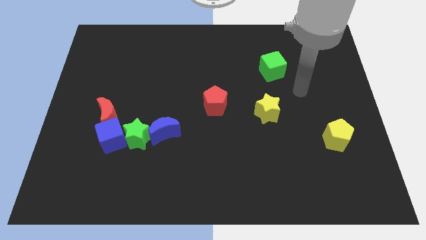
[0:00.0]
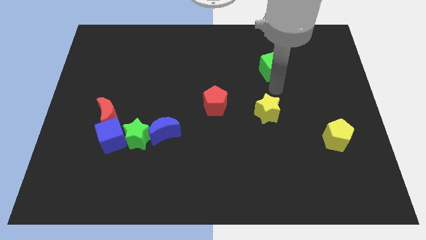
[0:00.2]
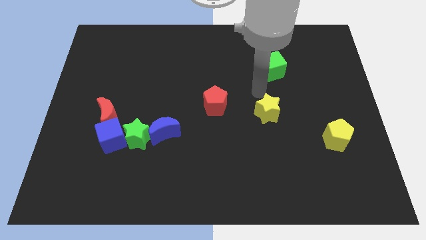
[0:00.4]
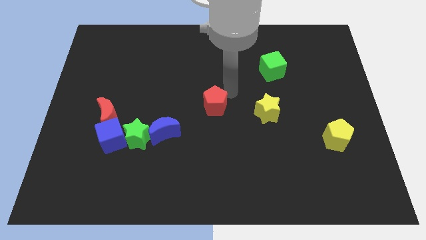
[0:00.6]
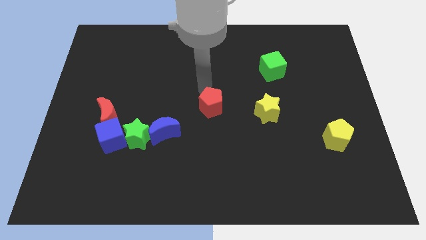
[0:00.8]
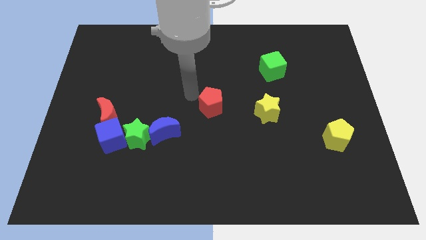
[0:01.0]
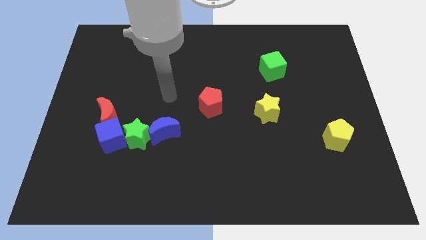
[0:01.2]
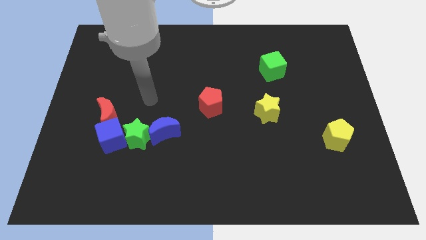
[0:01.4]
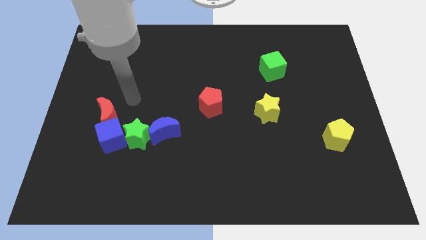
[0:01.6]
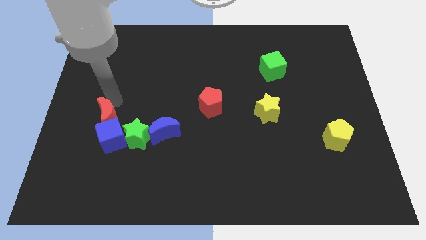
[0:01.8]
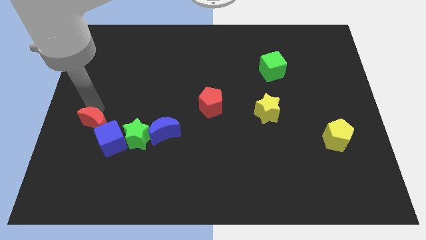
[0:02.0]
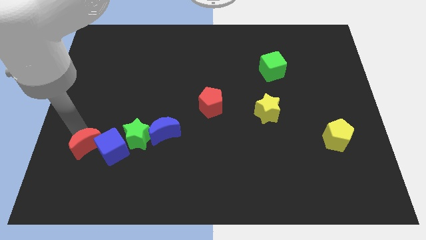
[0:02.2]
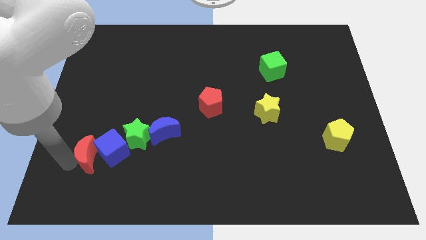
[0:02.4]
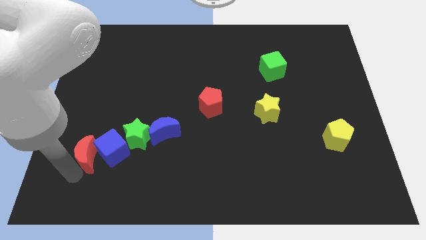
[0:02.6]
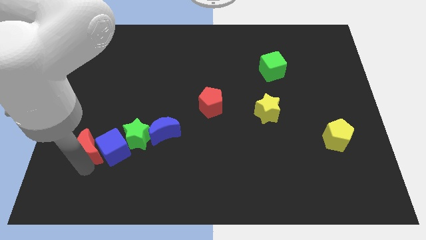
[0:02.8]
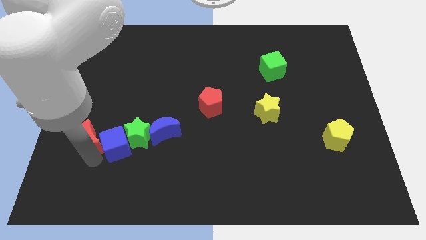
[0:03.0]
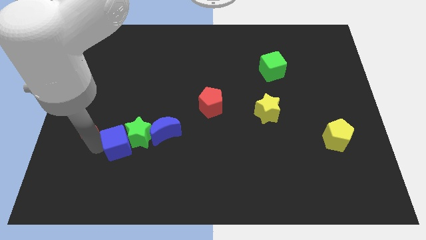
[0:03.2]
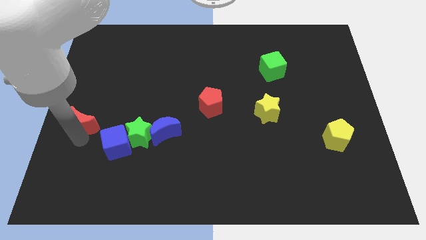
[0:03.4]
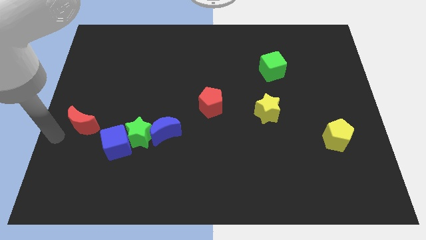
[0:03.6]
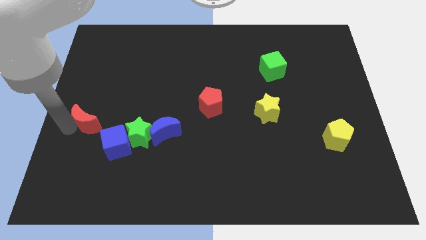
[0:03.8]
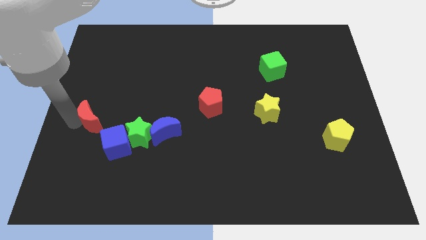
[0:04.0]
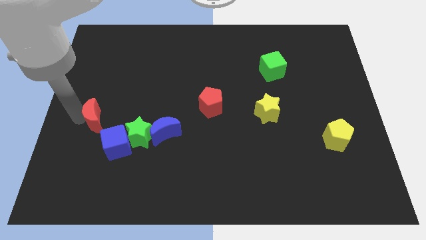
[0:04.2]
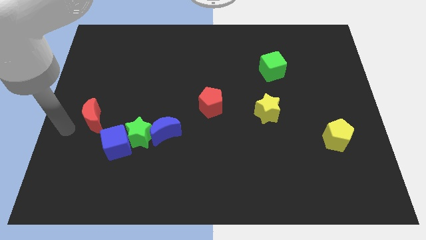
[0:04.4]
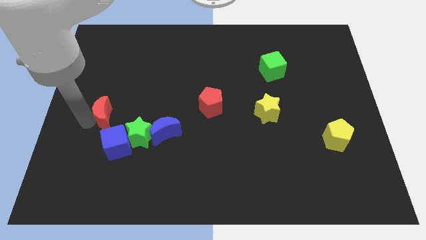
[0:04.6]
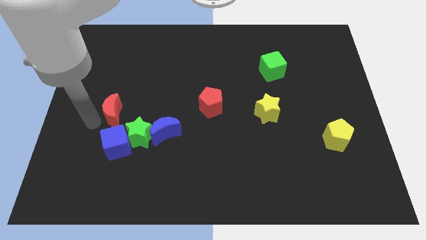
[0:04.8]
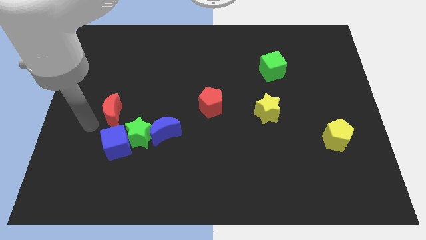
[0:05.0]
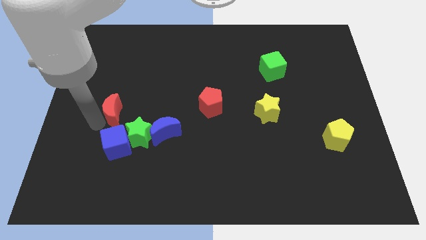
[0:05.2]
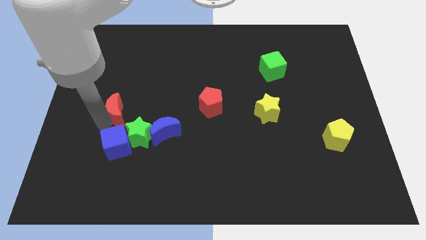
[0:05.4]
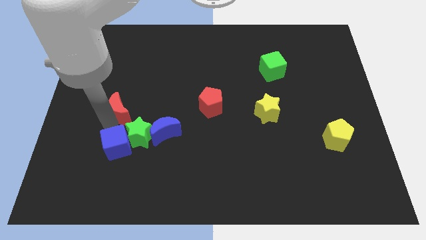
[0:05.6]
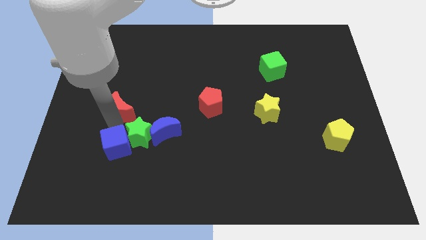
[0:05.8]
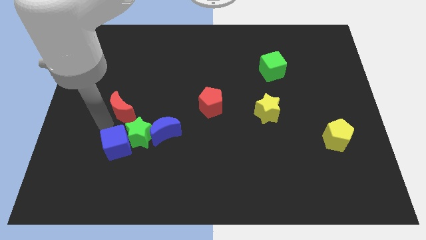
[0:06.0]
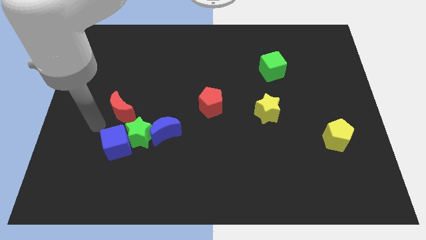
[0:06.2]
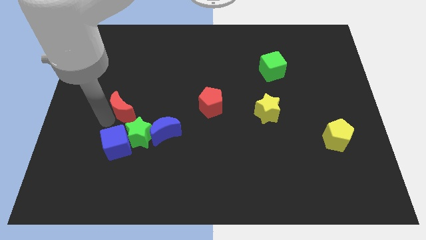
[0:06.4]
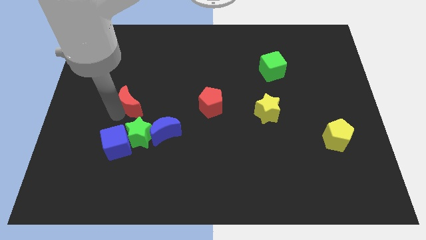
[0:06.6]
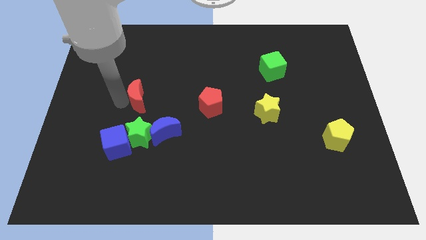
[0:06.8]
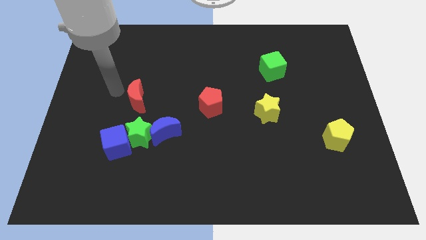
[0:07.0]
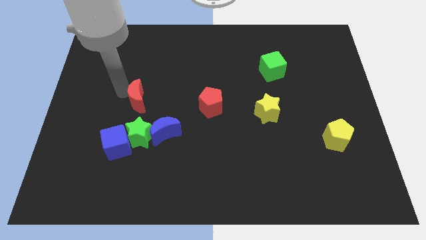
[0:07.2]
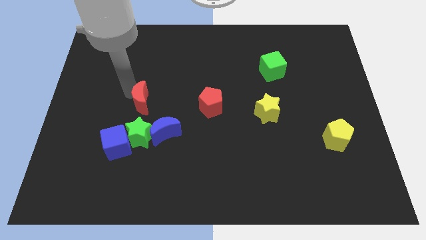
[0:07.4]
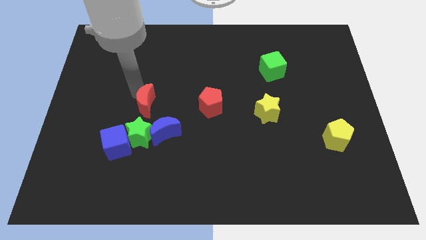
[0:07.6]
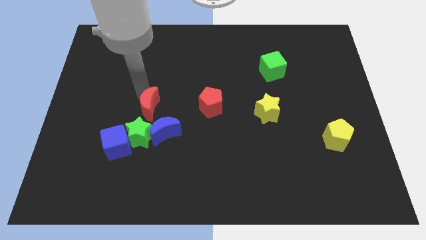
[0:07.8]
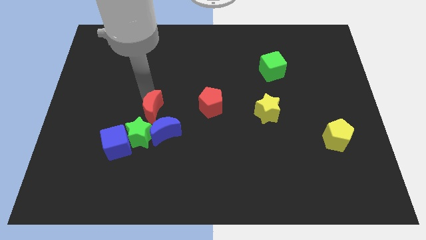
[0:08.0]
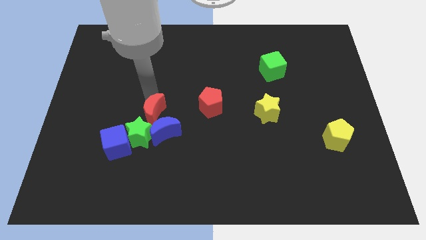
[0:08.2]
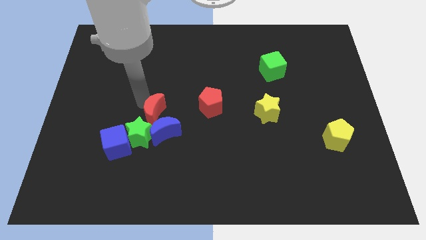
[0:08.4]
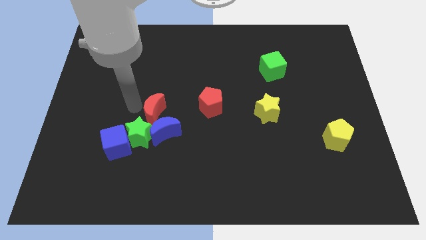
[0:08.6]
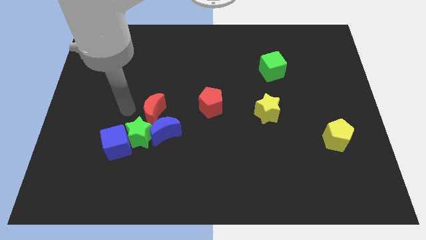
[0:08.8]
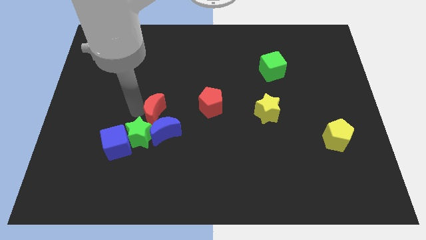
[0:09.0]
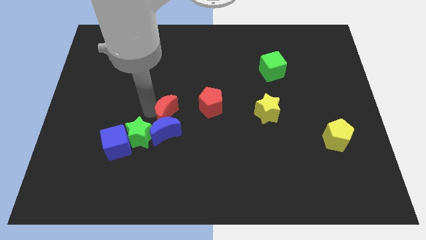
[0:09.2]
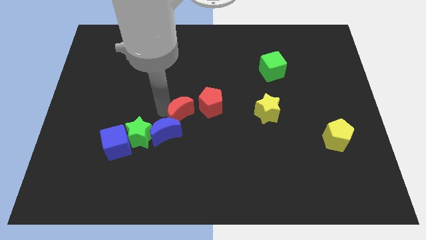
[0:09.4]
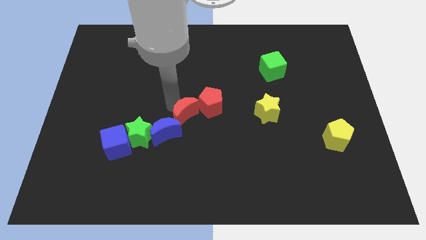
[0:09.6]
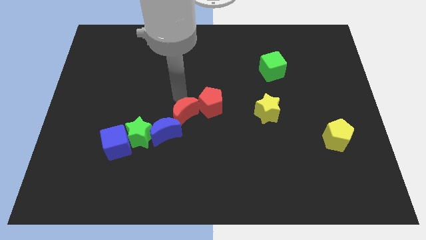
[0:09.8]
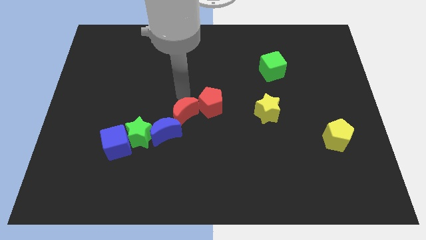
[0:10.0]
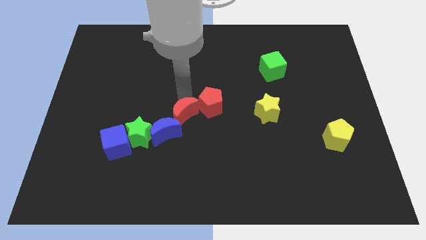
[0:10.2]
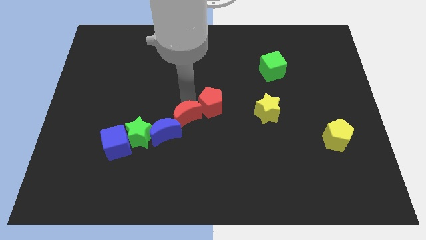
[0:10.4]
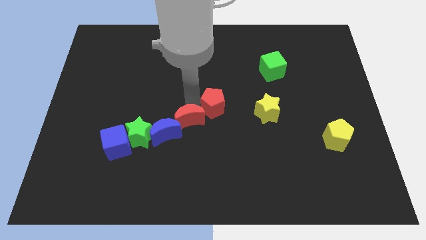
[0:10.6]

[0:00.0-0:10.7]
push the red moon to the right side of the green star

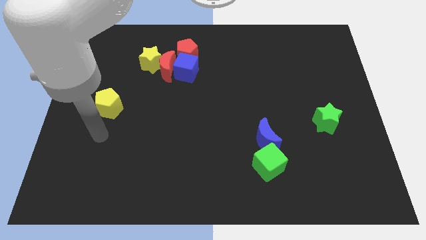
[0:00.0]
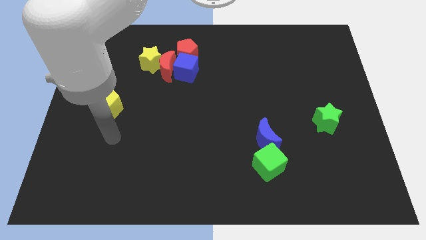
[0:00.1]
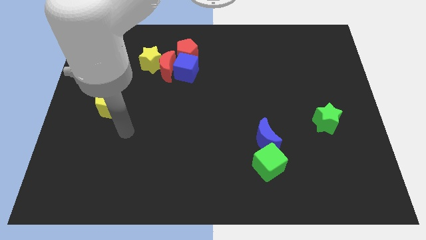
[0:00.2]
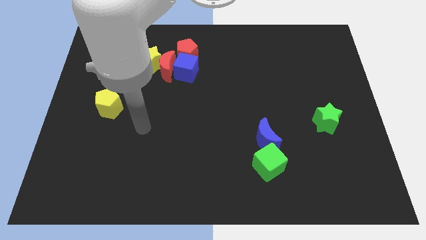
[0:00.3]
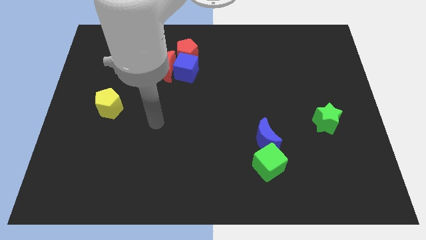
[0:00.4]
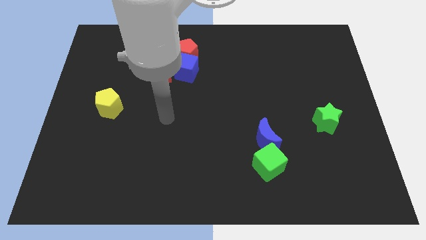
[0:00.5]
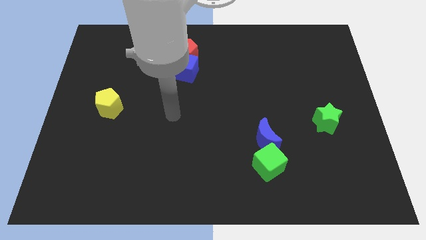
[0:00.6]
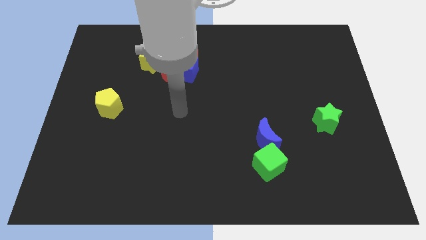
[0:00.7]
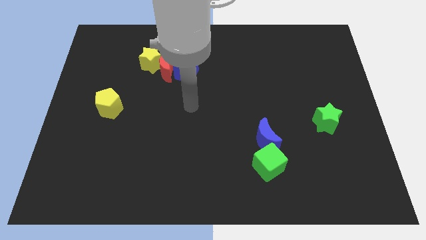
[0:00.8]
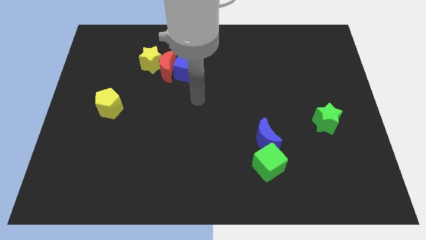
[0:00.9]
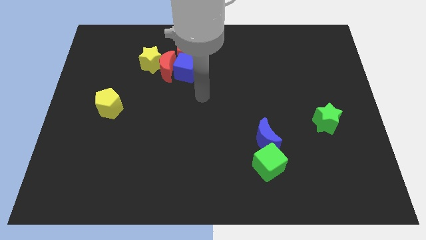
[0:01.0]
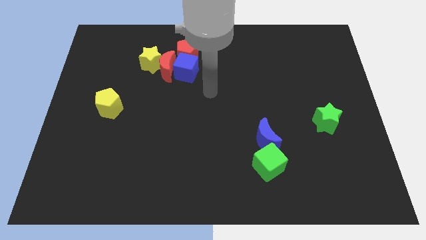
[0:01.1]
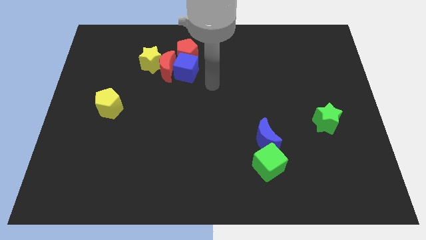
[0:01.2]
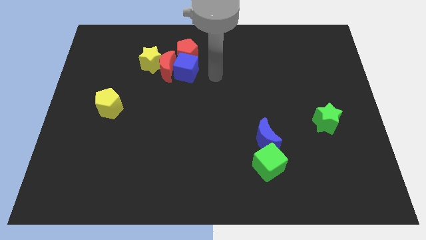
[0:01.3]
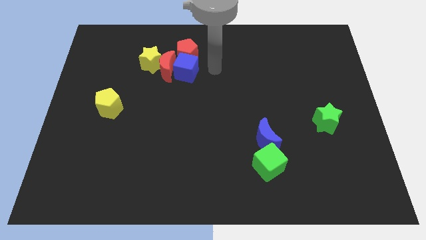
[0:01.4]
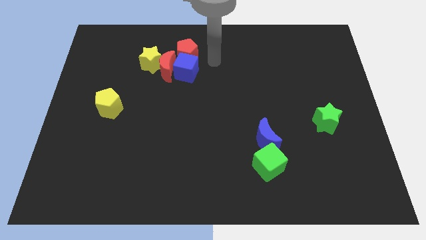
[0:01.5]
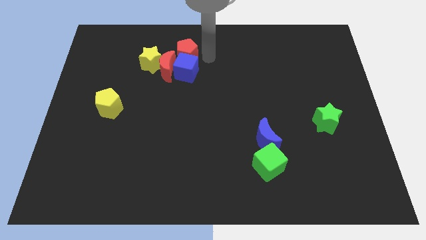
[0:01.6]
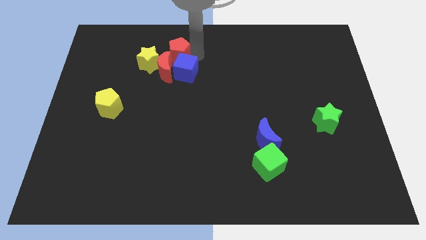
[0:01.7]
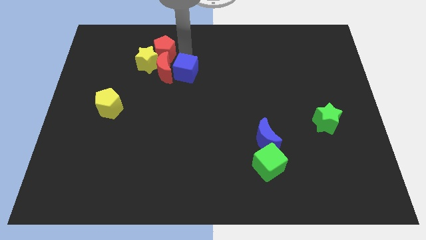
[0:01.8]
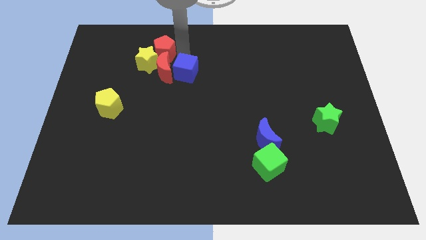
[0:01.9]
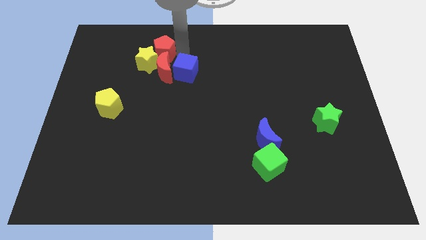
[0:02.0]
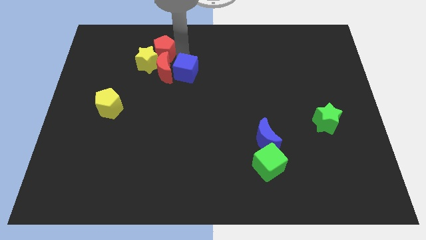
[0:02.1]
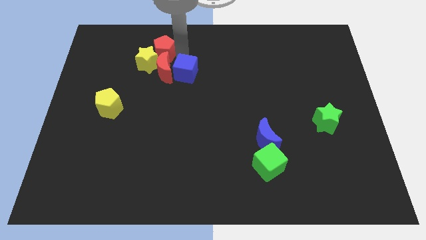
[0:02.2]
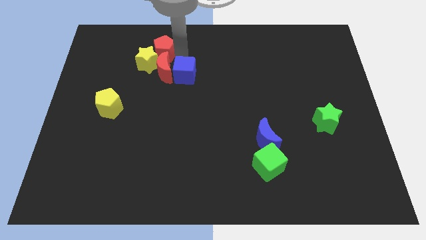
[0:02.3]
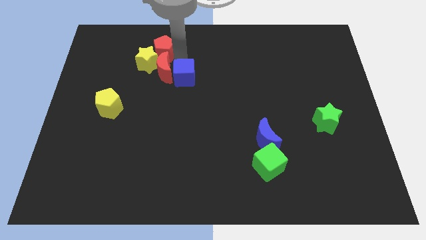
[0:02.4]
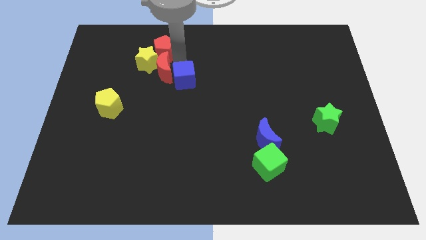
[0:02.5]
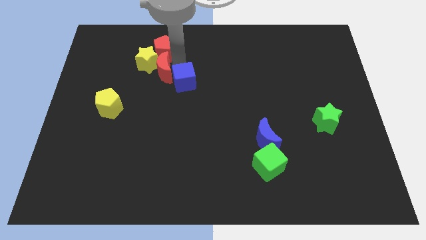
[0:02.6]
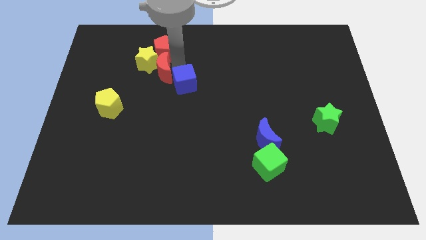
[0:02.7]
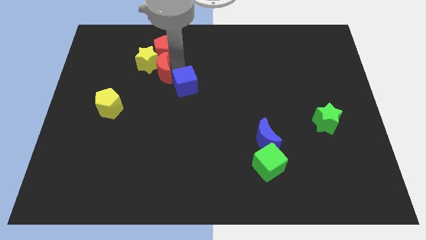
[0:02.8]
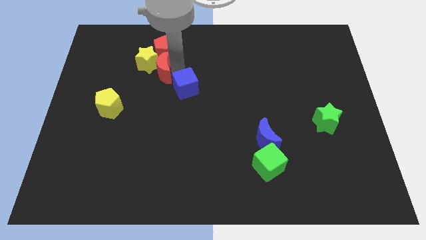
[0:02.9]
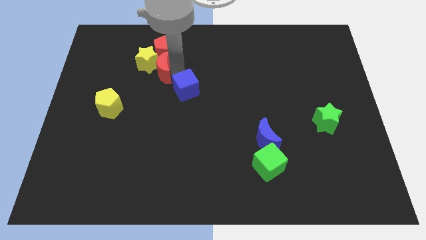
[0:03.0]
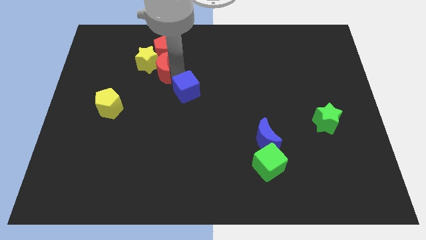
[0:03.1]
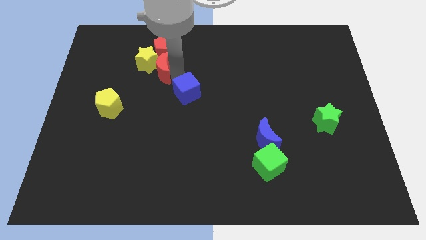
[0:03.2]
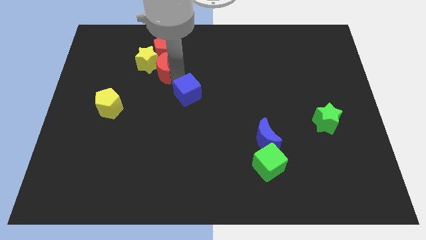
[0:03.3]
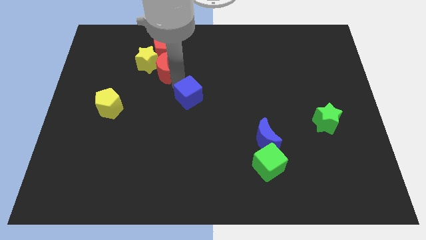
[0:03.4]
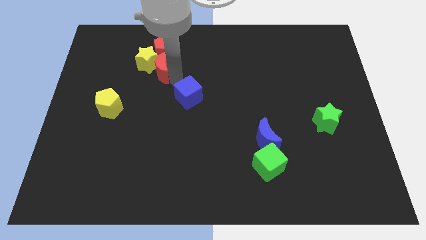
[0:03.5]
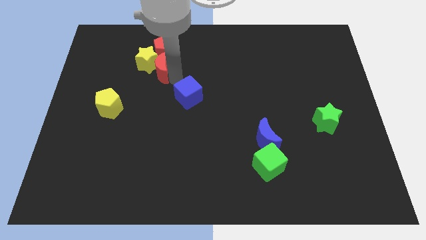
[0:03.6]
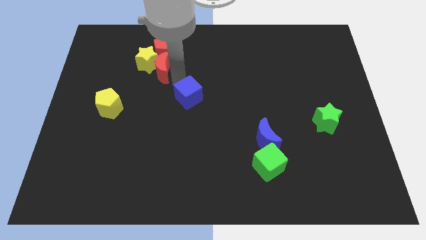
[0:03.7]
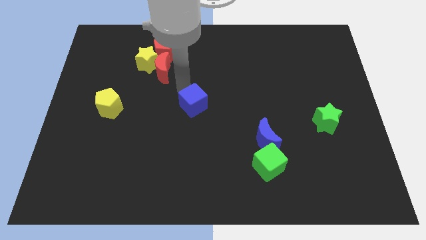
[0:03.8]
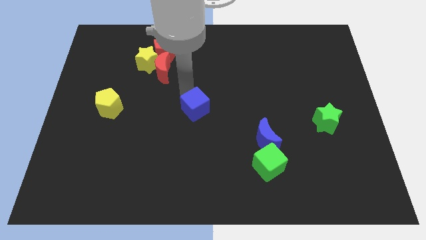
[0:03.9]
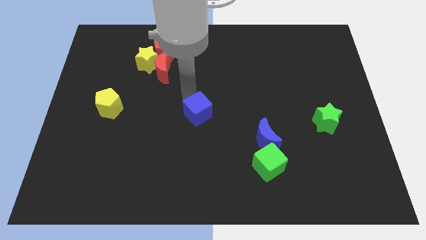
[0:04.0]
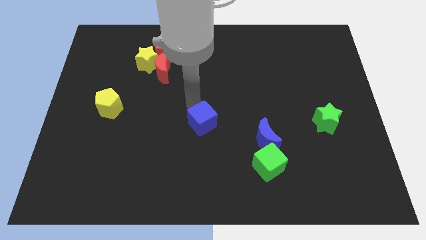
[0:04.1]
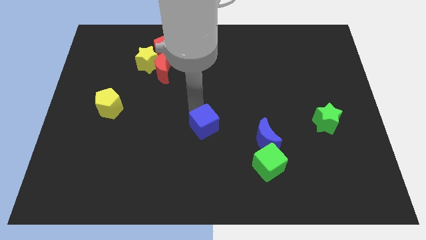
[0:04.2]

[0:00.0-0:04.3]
put the blue cube left of the blue moon
